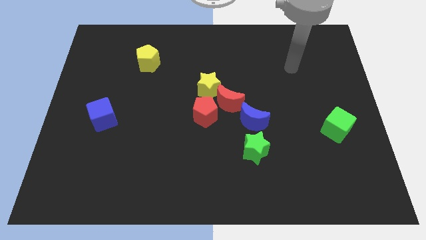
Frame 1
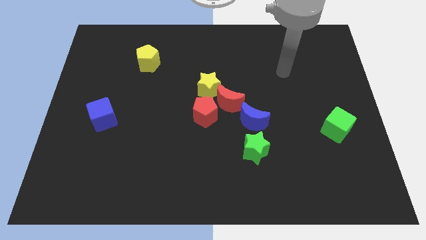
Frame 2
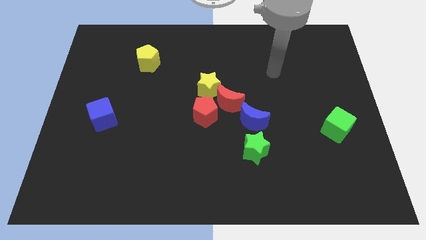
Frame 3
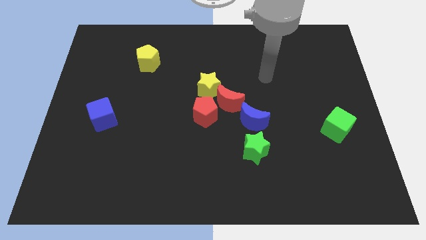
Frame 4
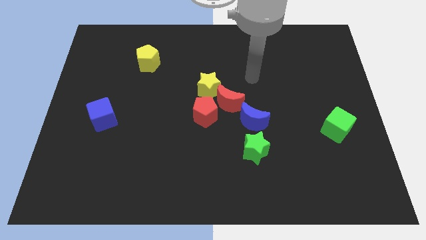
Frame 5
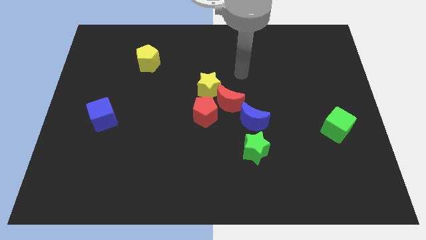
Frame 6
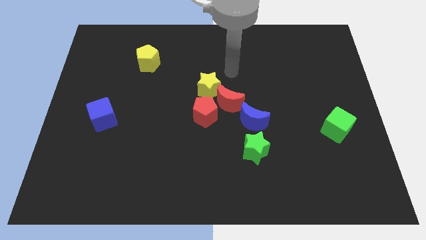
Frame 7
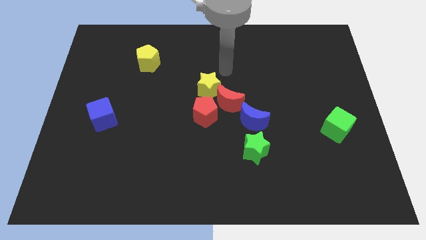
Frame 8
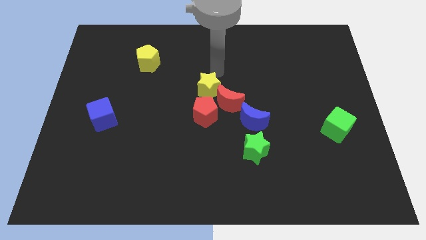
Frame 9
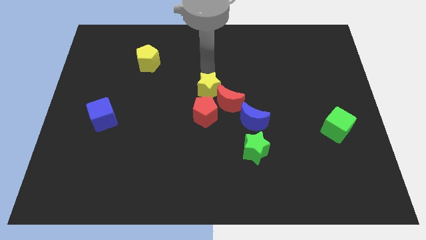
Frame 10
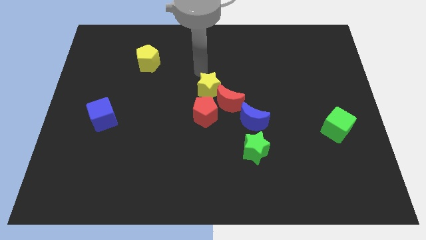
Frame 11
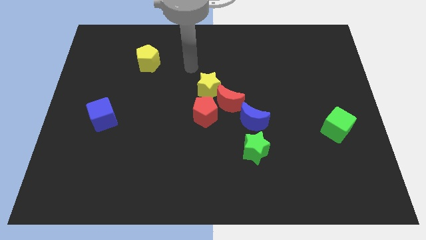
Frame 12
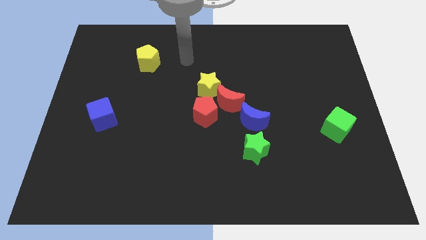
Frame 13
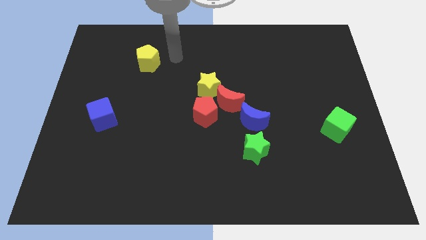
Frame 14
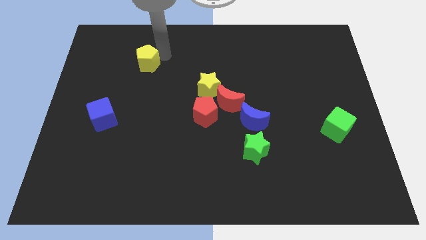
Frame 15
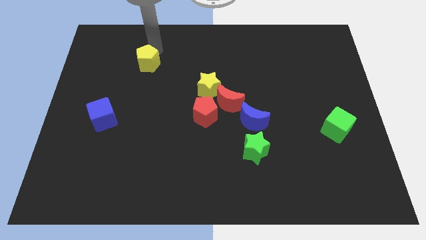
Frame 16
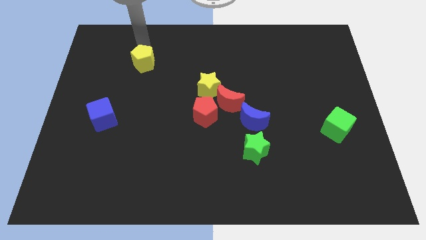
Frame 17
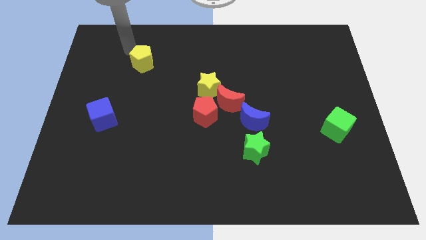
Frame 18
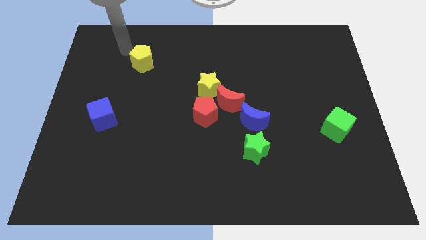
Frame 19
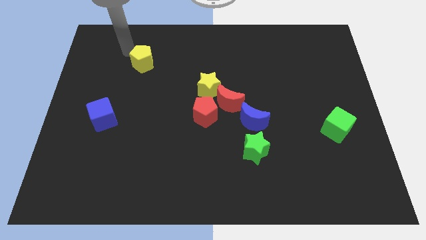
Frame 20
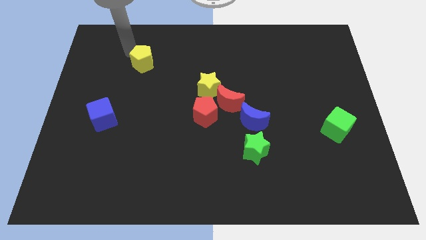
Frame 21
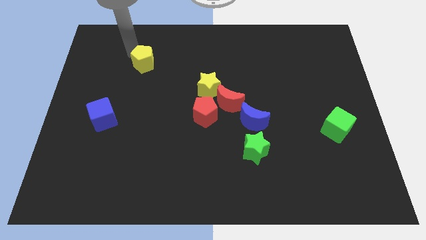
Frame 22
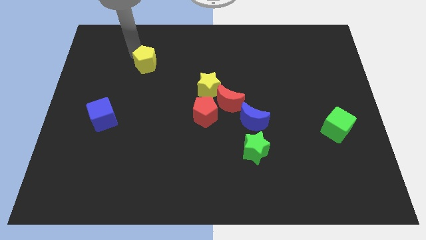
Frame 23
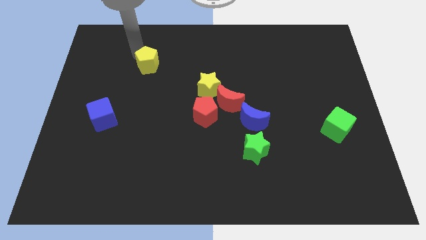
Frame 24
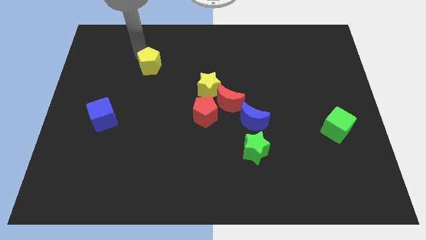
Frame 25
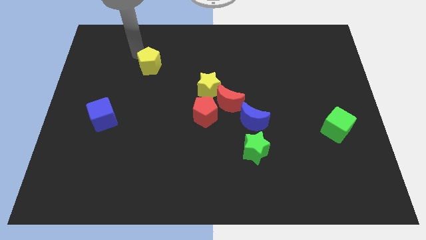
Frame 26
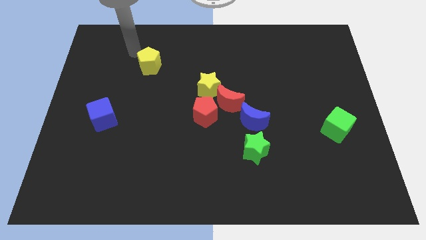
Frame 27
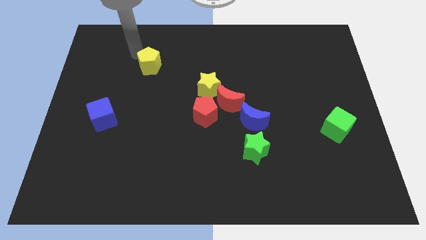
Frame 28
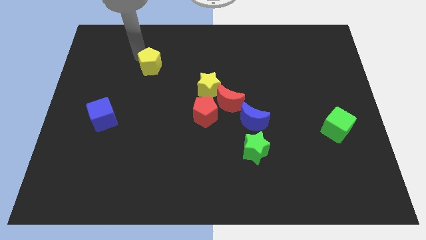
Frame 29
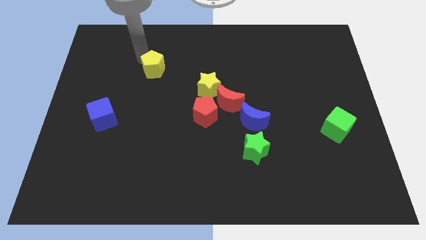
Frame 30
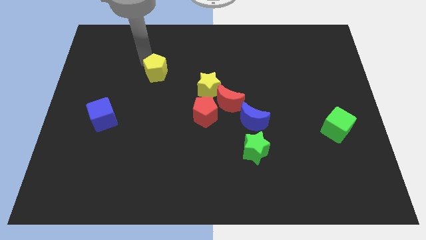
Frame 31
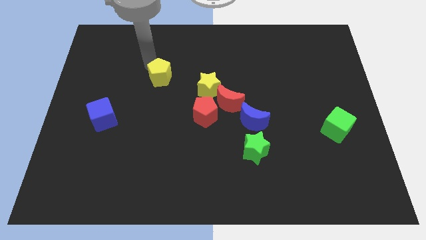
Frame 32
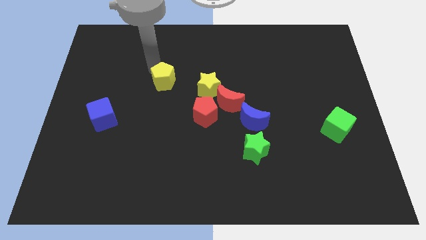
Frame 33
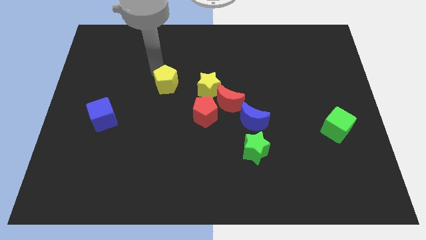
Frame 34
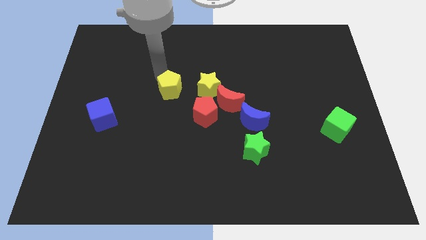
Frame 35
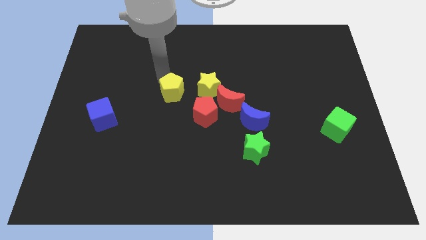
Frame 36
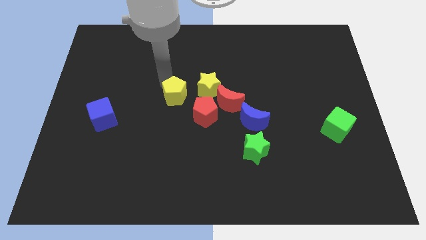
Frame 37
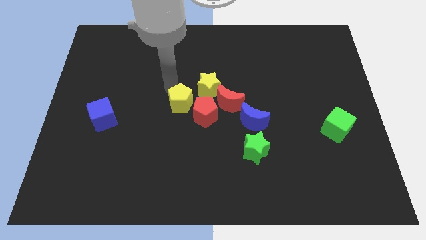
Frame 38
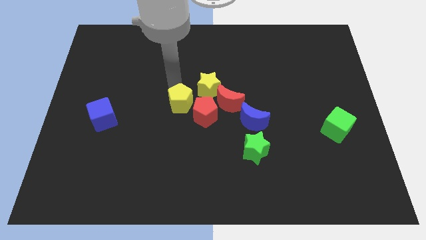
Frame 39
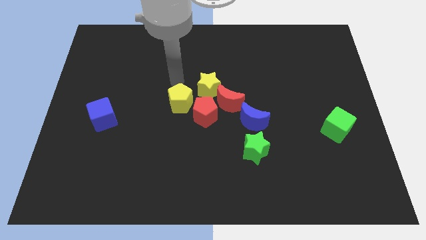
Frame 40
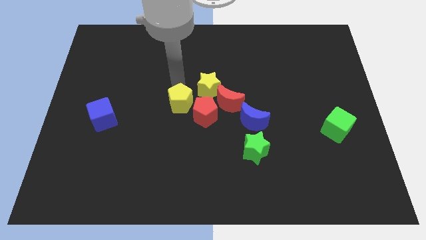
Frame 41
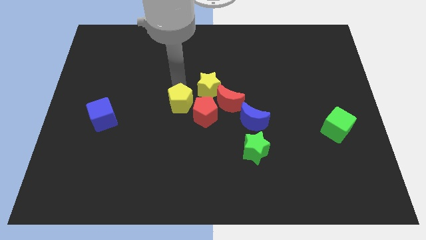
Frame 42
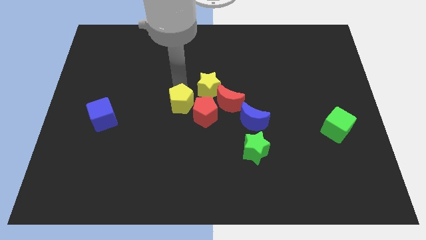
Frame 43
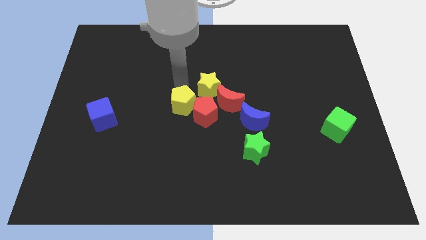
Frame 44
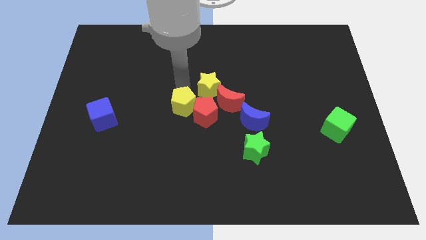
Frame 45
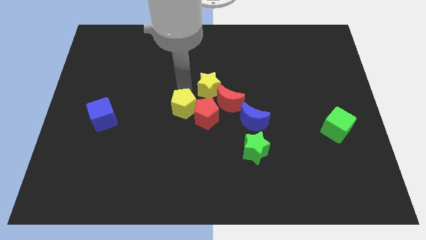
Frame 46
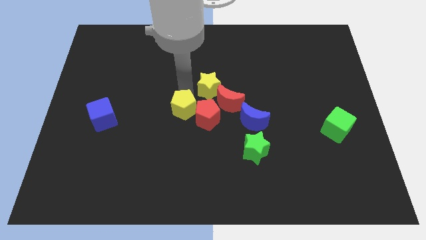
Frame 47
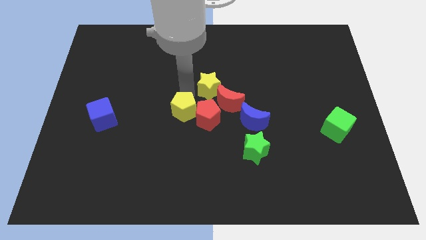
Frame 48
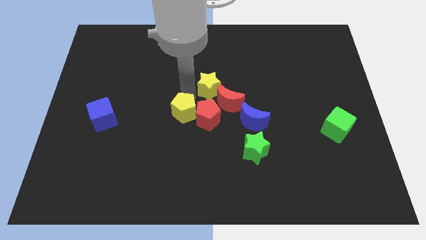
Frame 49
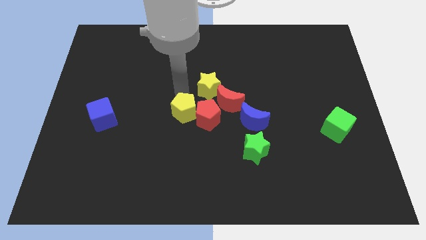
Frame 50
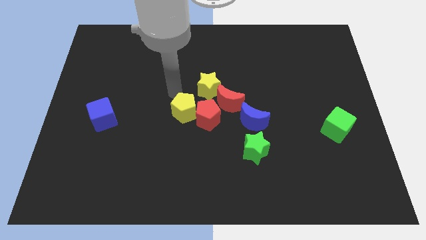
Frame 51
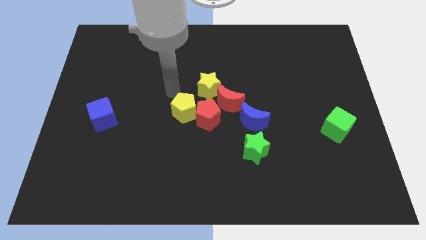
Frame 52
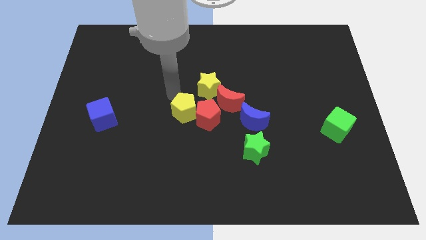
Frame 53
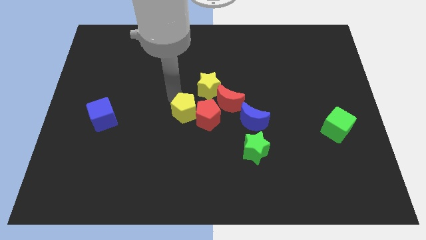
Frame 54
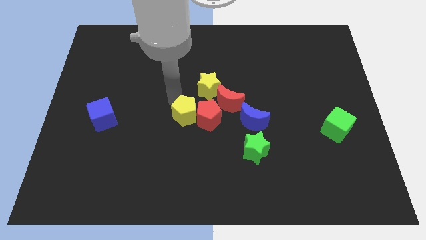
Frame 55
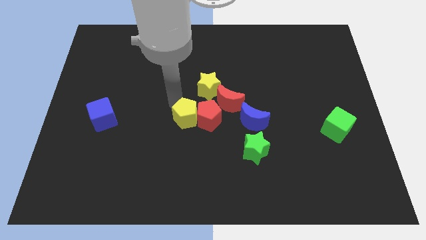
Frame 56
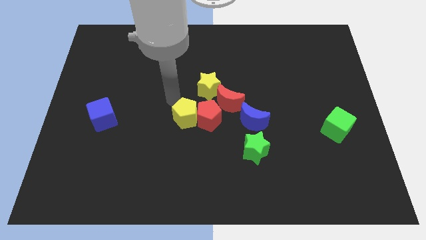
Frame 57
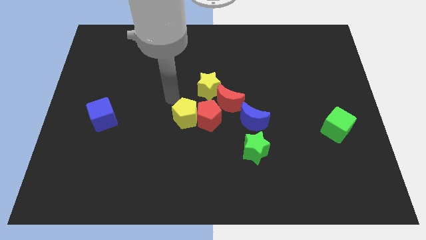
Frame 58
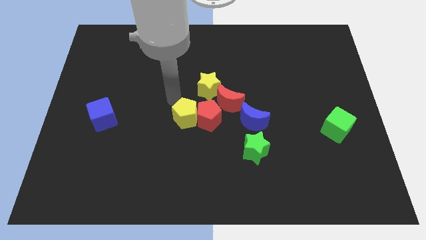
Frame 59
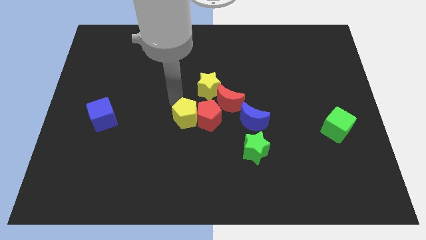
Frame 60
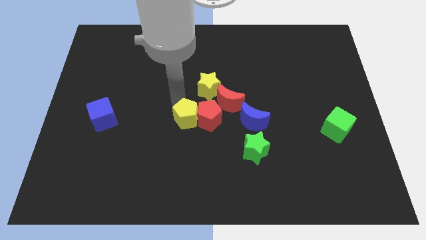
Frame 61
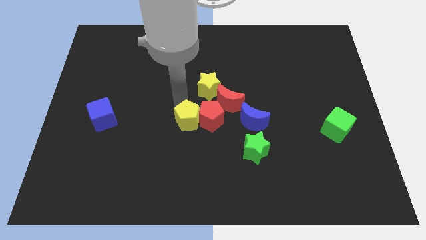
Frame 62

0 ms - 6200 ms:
slide the yellow pentagon diagonally downwards and right

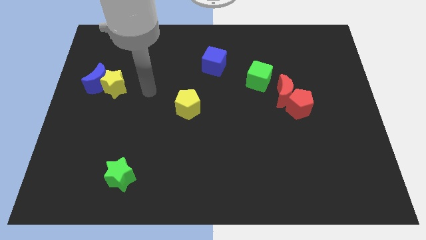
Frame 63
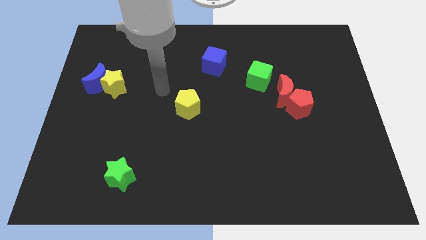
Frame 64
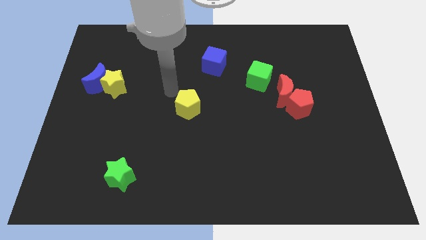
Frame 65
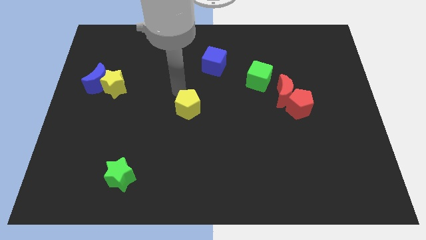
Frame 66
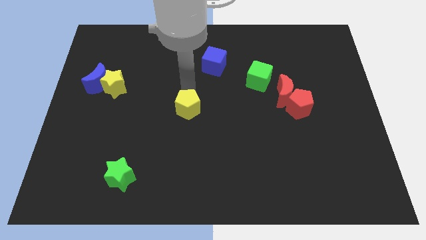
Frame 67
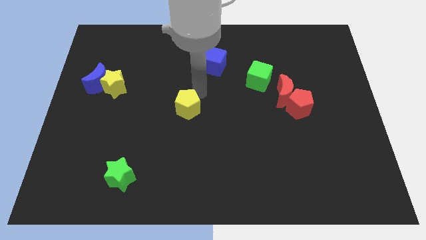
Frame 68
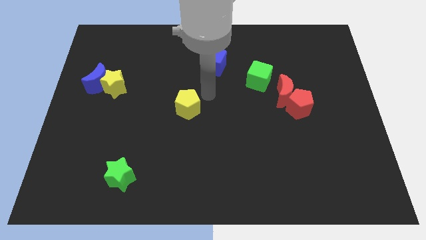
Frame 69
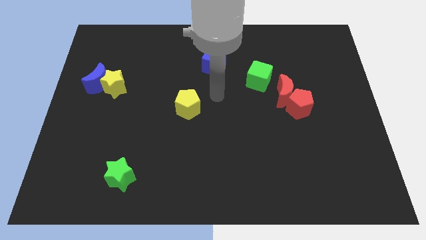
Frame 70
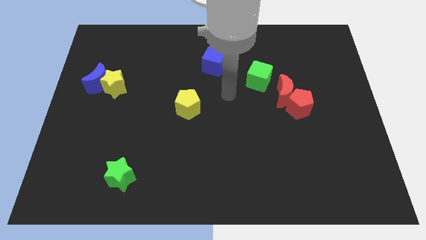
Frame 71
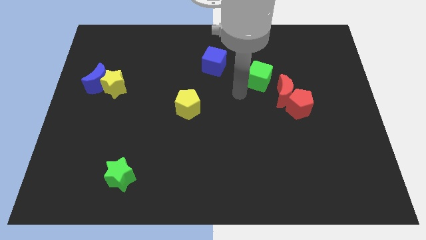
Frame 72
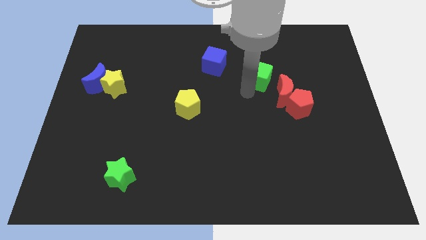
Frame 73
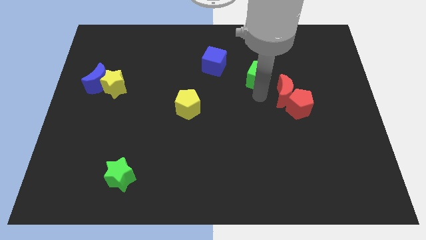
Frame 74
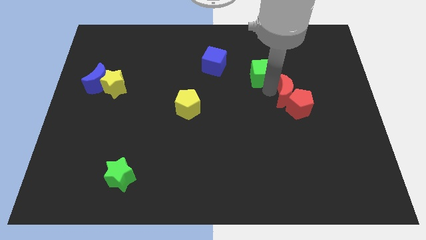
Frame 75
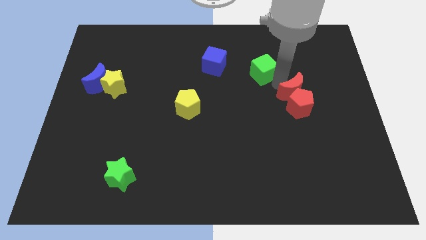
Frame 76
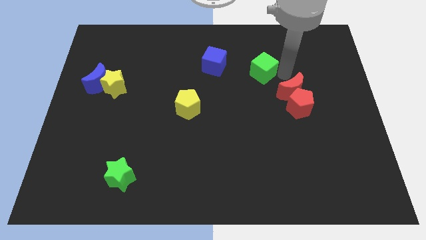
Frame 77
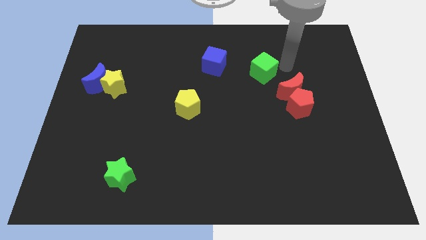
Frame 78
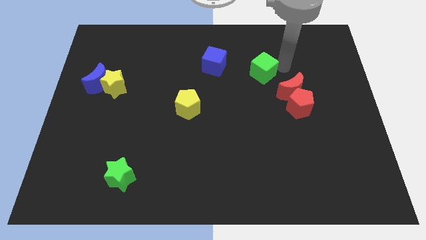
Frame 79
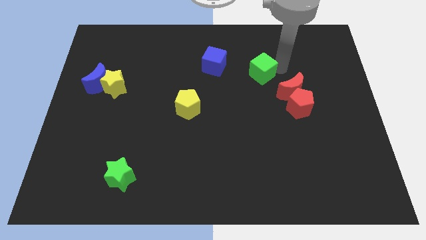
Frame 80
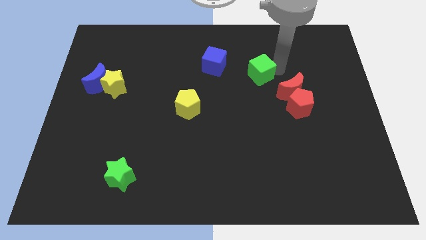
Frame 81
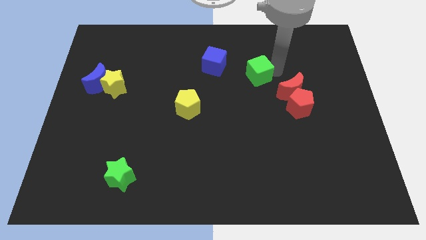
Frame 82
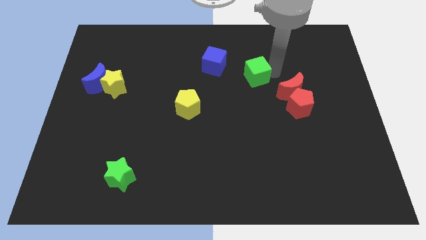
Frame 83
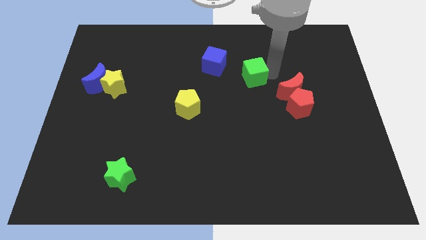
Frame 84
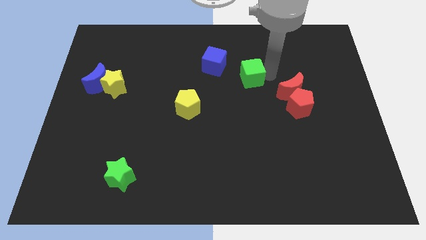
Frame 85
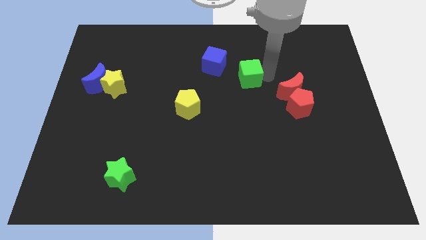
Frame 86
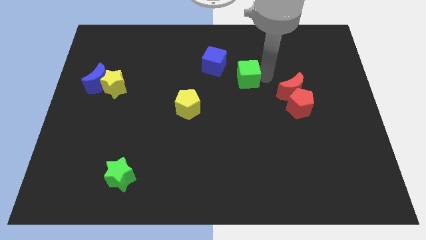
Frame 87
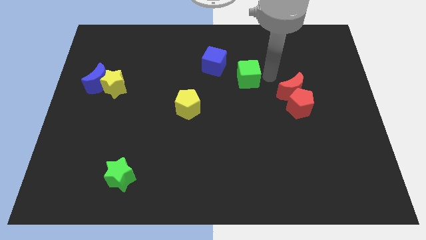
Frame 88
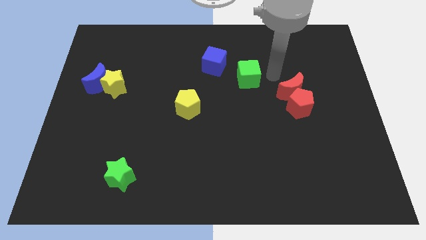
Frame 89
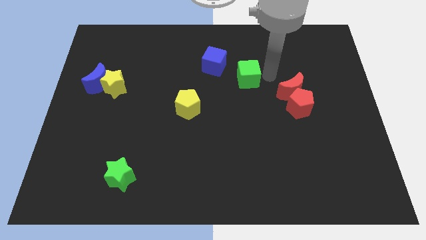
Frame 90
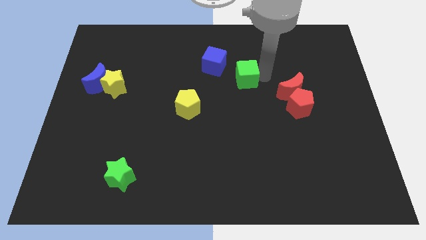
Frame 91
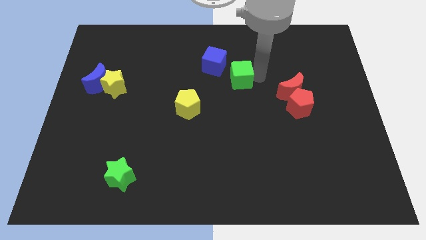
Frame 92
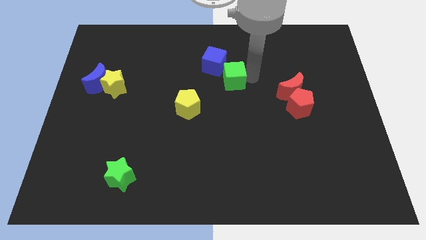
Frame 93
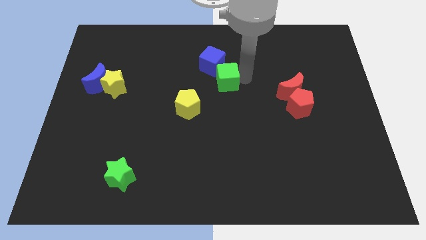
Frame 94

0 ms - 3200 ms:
slightly slide the green cube left
